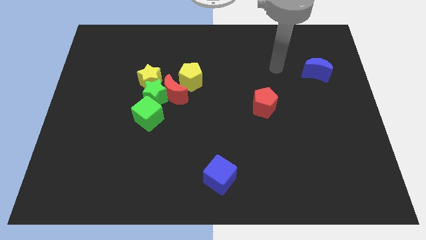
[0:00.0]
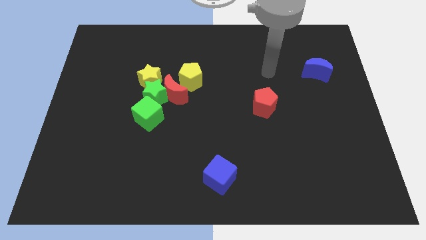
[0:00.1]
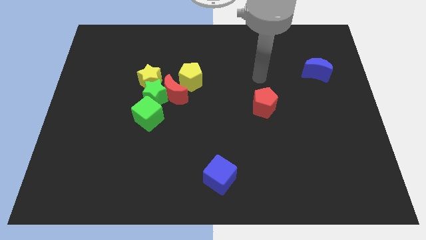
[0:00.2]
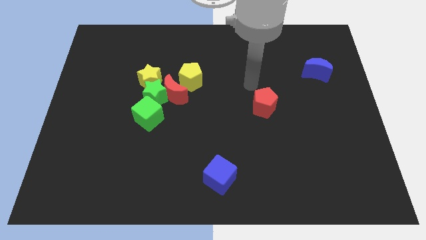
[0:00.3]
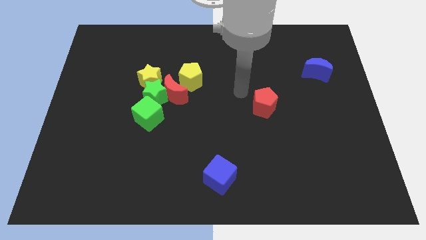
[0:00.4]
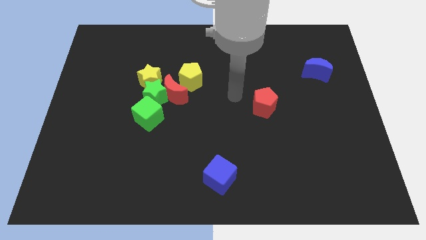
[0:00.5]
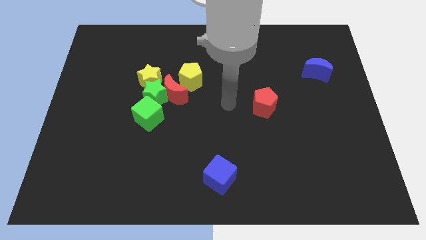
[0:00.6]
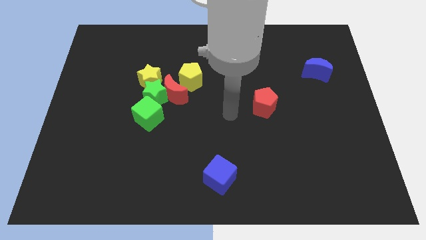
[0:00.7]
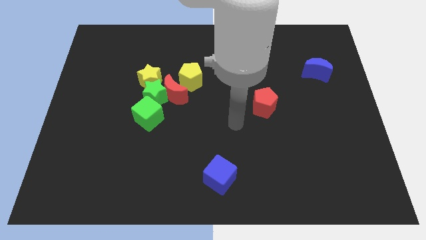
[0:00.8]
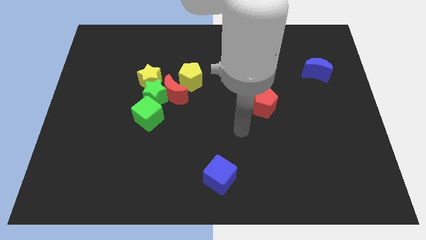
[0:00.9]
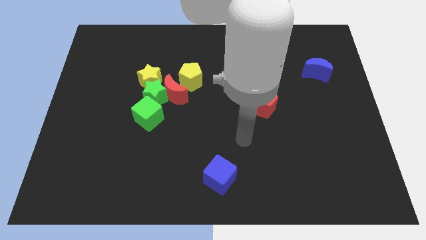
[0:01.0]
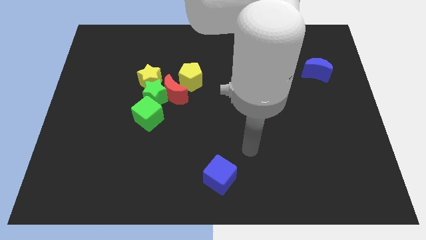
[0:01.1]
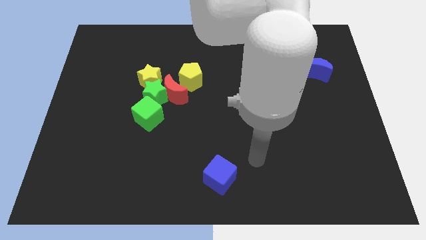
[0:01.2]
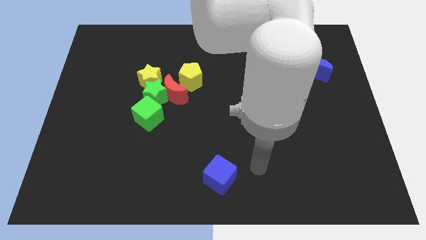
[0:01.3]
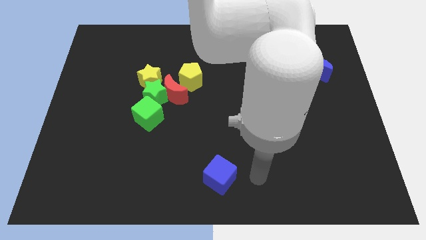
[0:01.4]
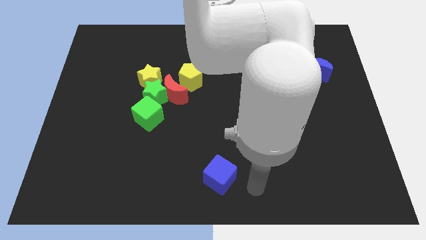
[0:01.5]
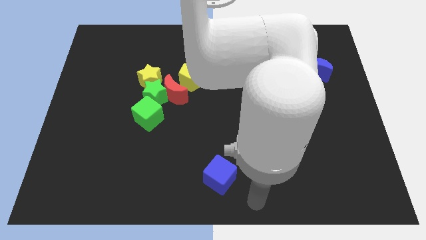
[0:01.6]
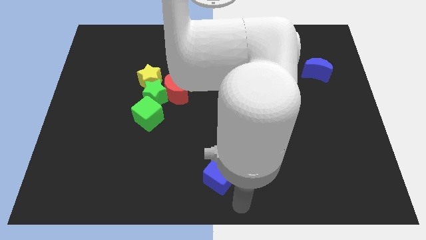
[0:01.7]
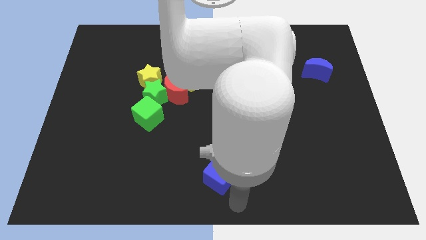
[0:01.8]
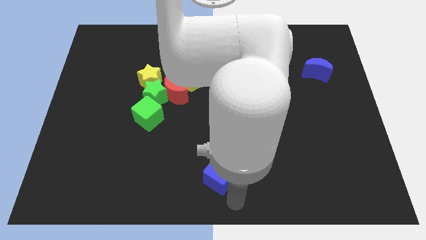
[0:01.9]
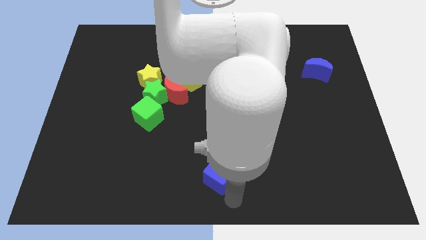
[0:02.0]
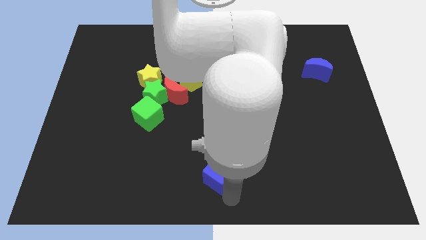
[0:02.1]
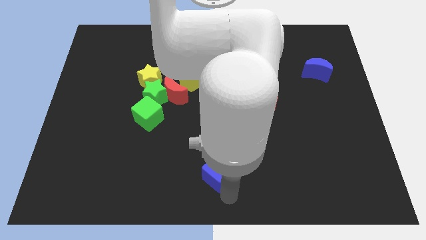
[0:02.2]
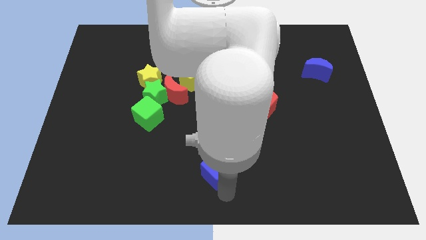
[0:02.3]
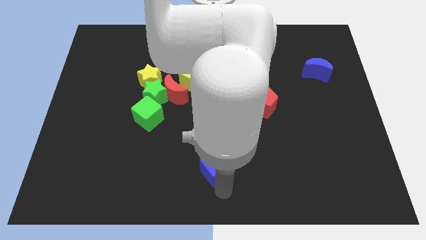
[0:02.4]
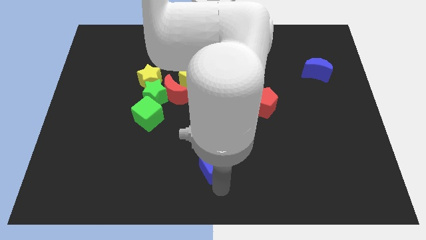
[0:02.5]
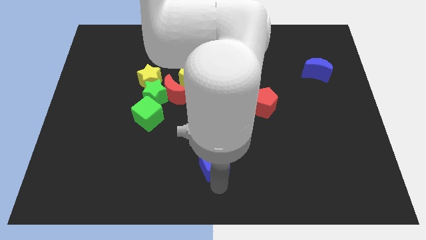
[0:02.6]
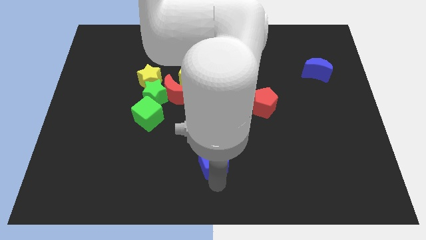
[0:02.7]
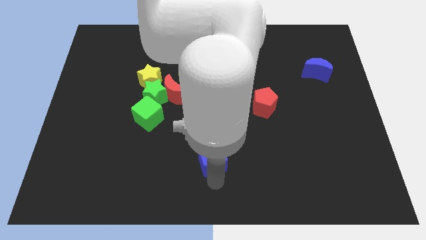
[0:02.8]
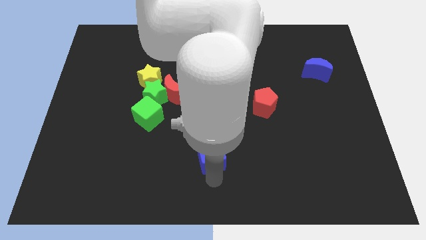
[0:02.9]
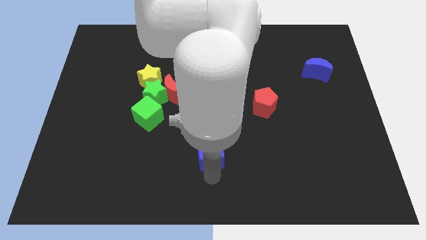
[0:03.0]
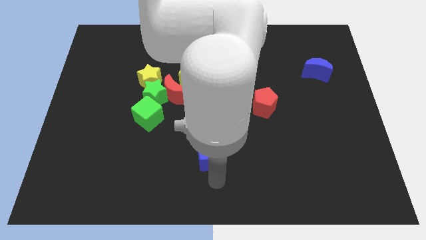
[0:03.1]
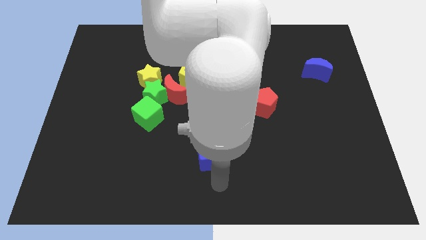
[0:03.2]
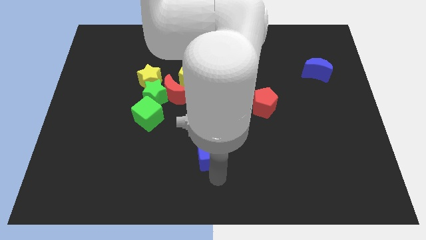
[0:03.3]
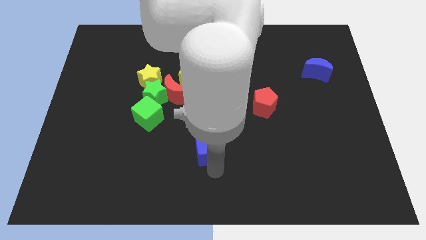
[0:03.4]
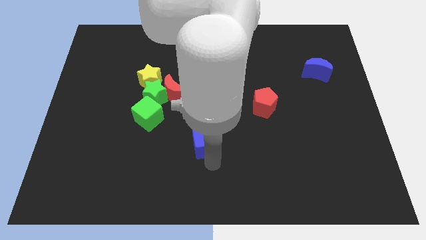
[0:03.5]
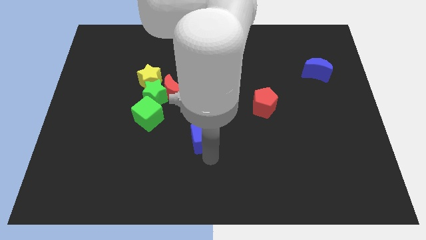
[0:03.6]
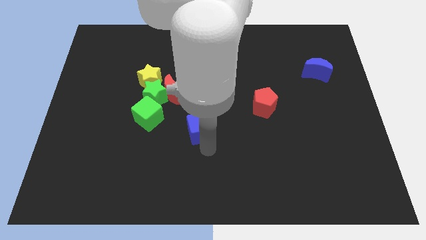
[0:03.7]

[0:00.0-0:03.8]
move the blue cube below the yellow pentagon

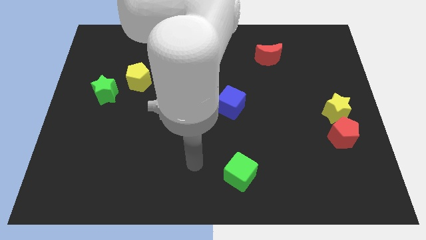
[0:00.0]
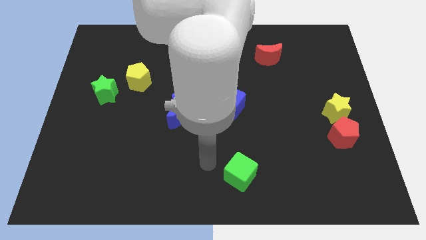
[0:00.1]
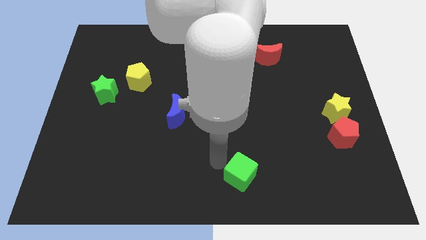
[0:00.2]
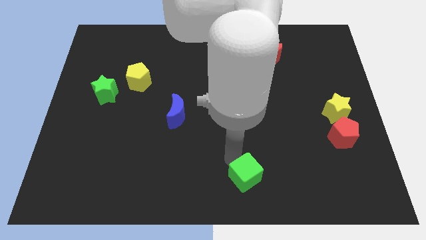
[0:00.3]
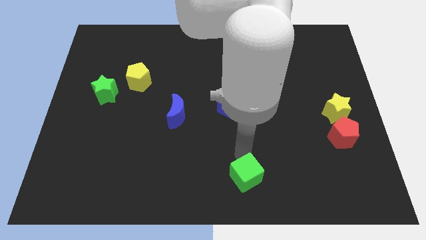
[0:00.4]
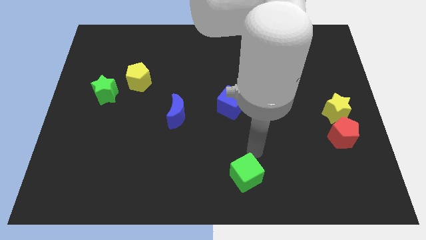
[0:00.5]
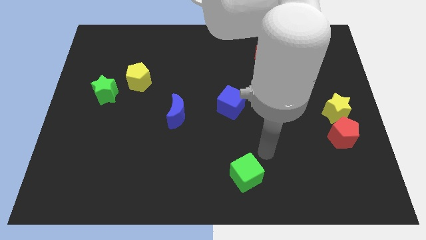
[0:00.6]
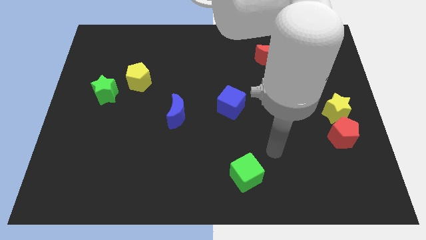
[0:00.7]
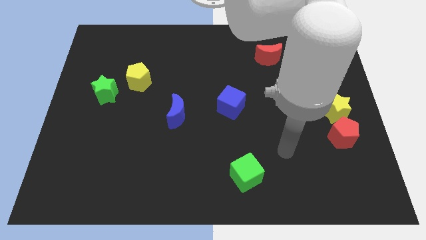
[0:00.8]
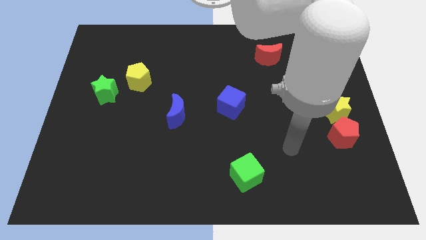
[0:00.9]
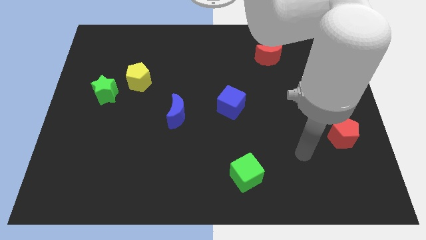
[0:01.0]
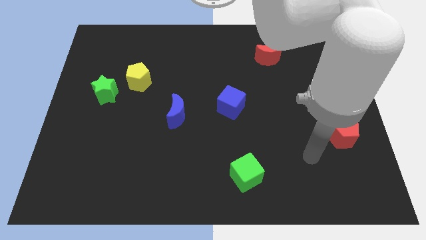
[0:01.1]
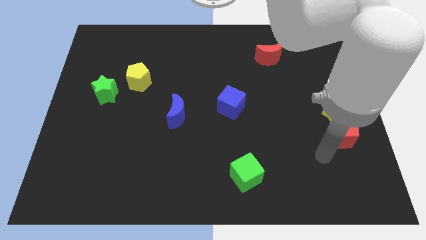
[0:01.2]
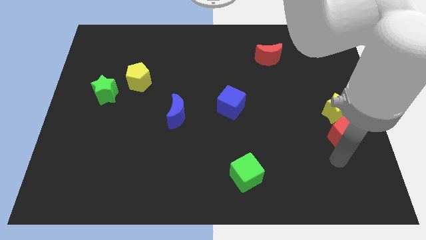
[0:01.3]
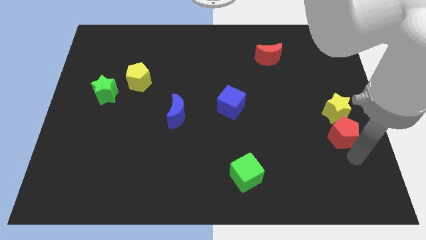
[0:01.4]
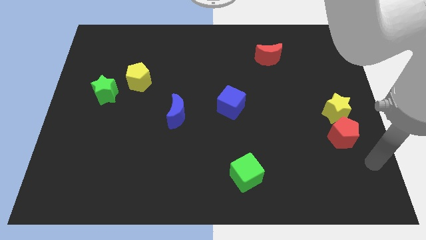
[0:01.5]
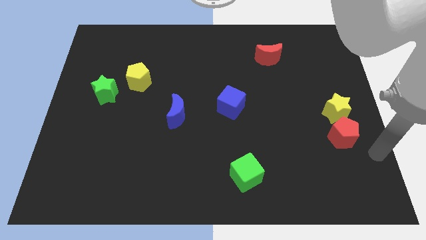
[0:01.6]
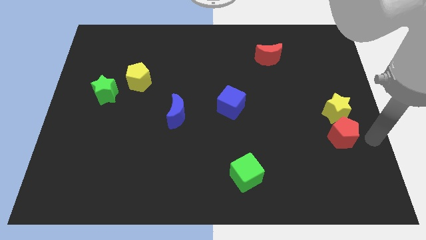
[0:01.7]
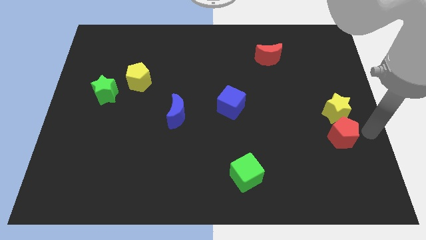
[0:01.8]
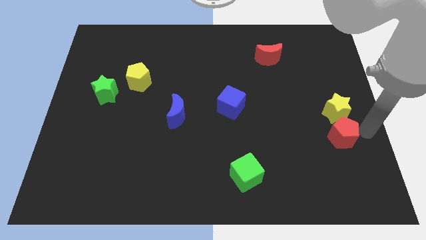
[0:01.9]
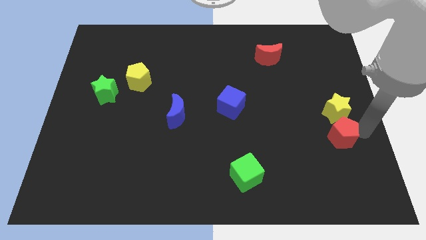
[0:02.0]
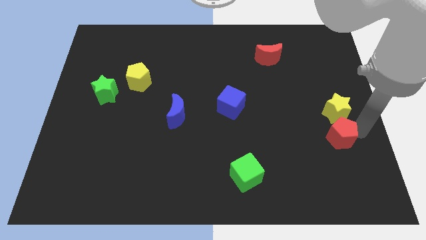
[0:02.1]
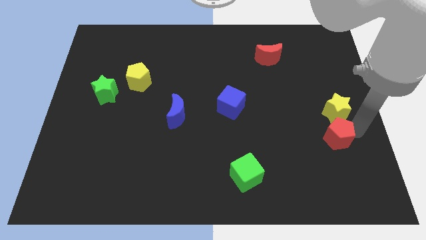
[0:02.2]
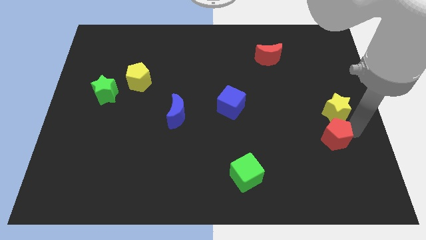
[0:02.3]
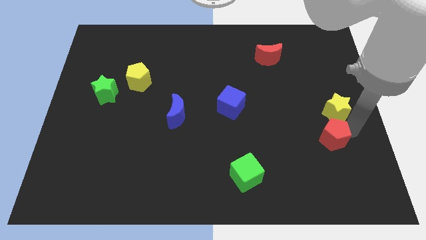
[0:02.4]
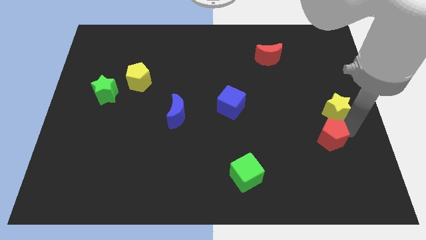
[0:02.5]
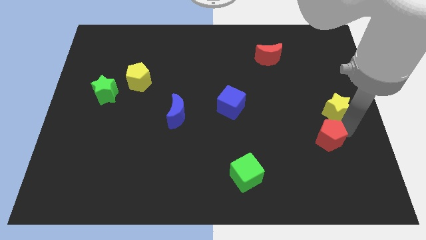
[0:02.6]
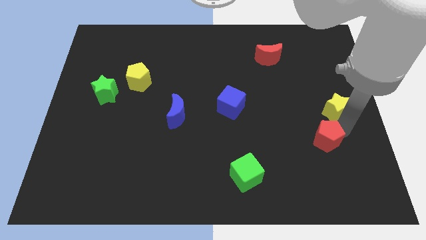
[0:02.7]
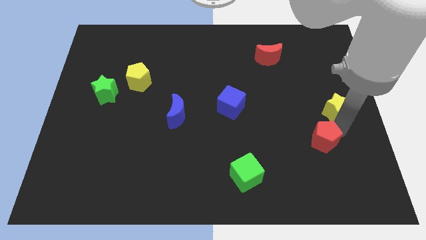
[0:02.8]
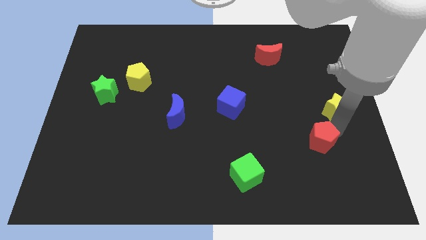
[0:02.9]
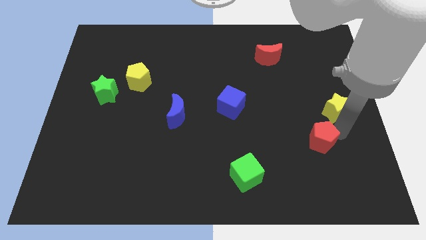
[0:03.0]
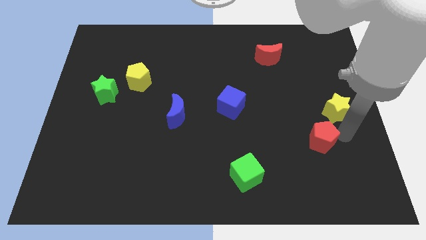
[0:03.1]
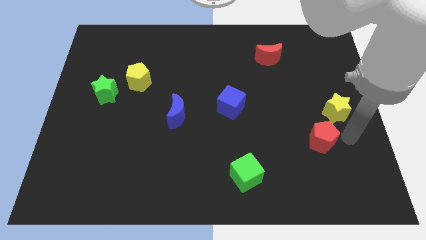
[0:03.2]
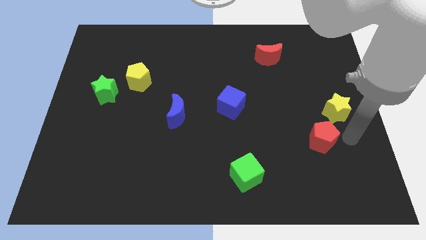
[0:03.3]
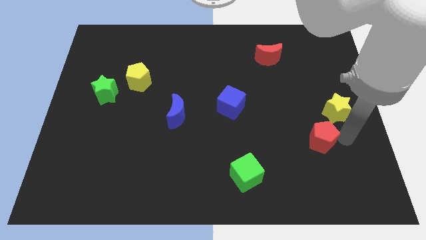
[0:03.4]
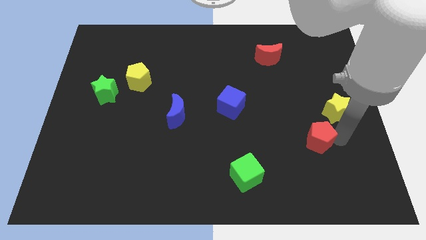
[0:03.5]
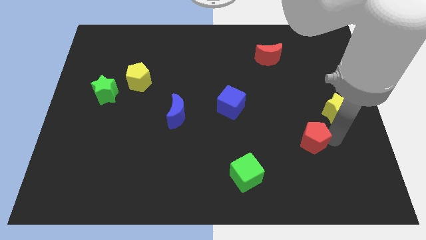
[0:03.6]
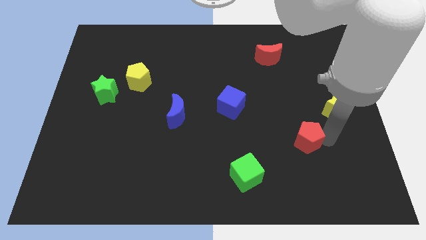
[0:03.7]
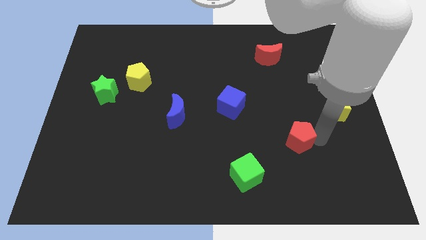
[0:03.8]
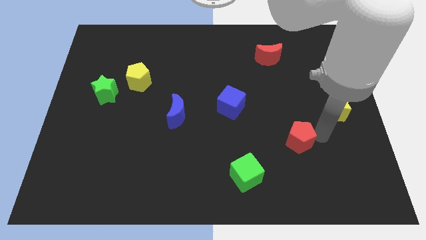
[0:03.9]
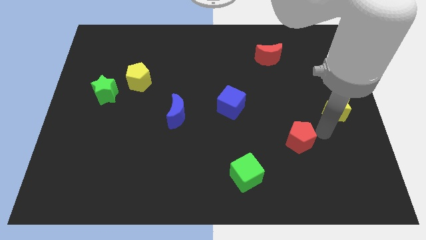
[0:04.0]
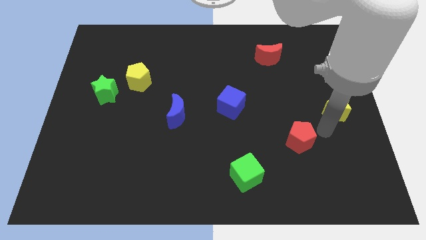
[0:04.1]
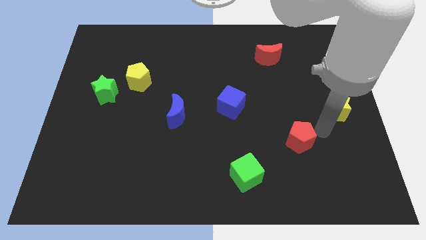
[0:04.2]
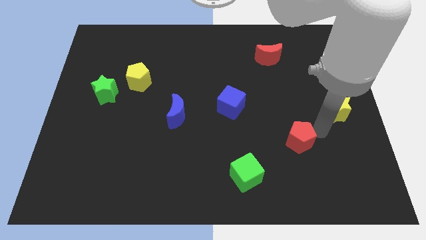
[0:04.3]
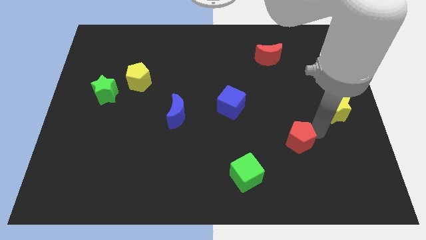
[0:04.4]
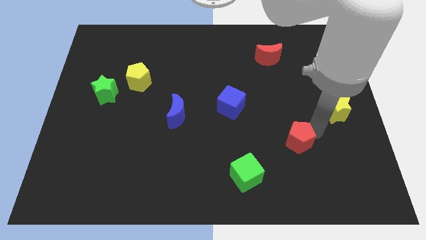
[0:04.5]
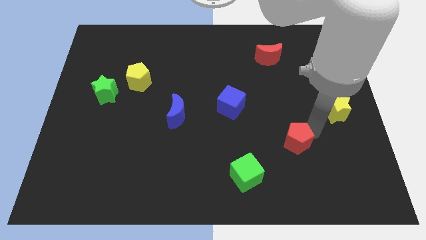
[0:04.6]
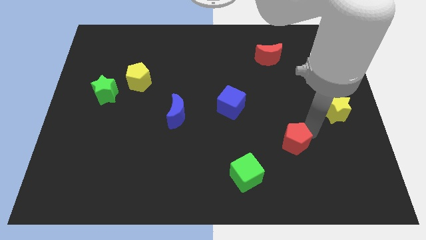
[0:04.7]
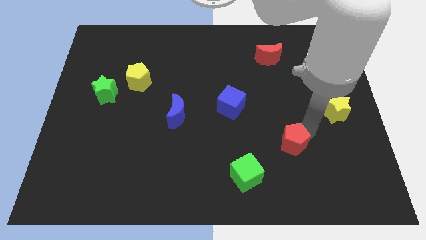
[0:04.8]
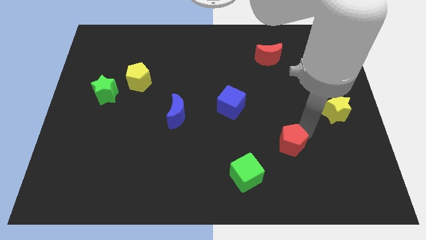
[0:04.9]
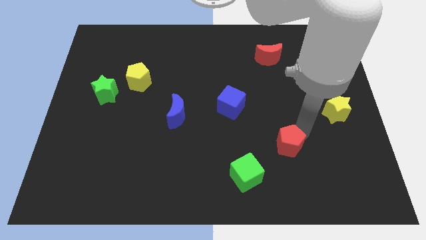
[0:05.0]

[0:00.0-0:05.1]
move the red pentagon to the top right side of the green cube
